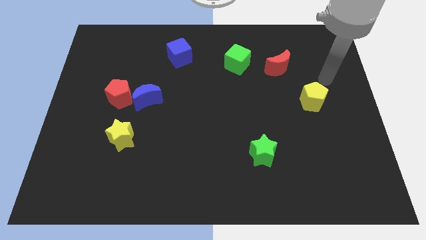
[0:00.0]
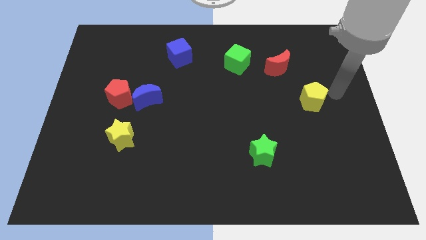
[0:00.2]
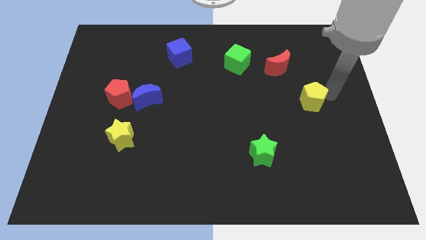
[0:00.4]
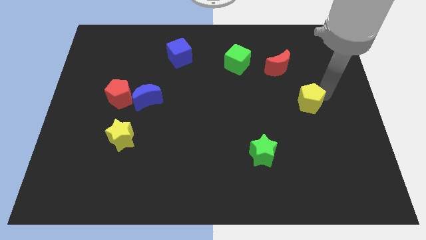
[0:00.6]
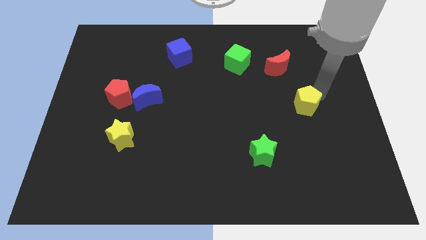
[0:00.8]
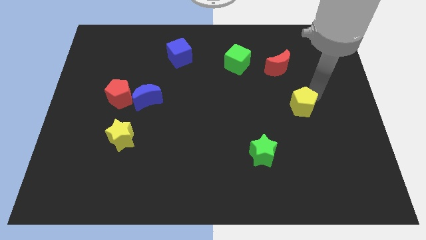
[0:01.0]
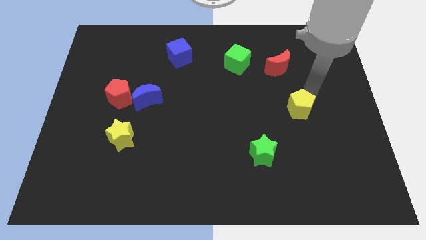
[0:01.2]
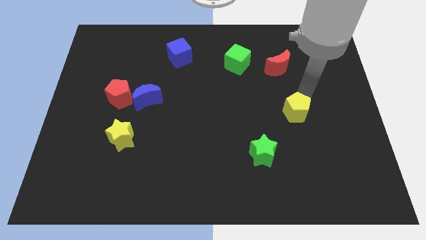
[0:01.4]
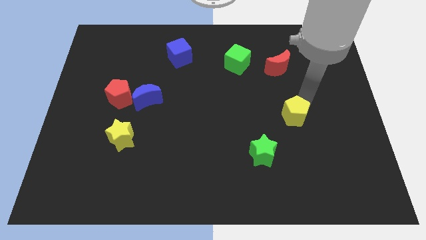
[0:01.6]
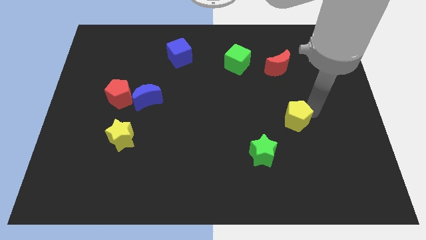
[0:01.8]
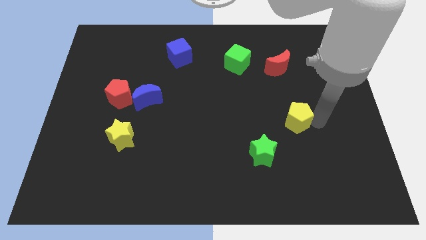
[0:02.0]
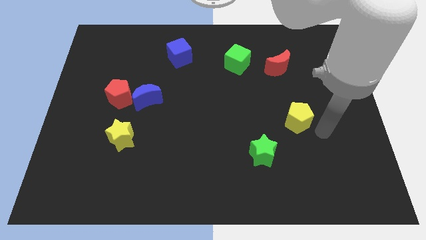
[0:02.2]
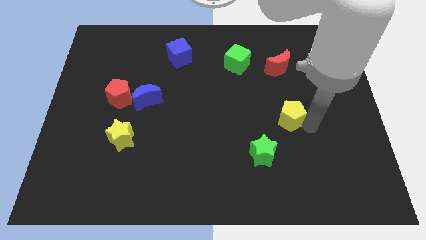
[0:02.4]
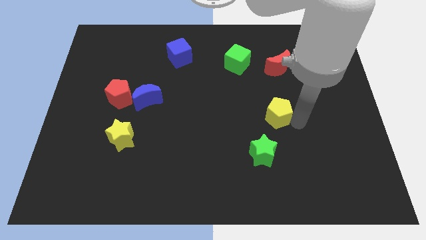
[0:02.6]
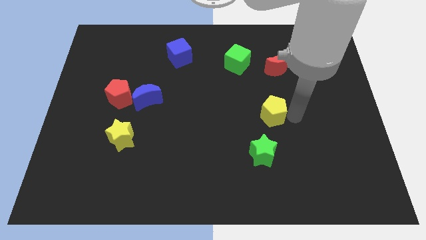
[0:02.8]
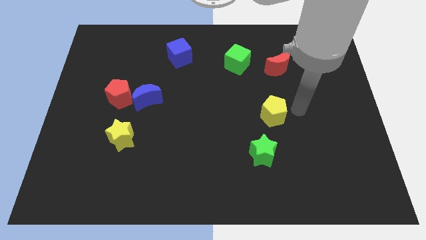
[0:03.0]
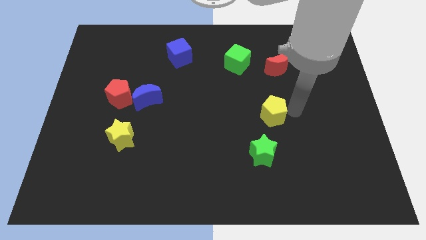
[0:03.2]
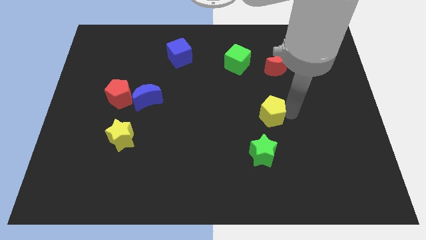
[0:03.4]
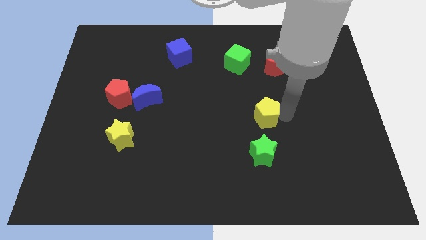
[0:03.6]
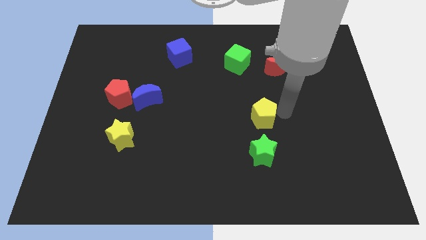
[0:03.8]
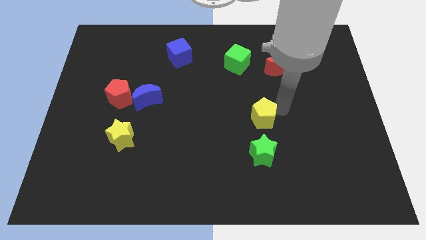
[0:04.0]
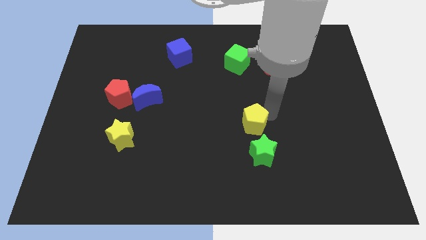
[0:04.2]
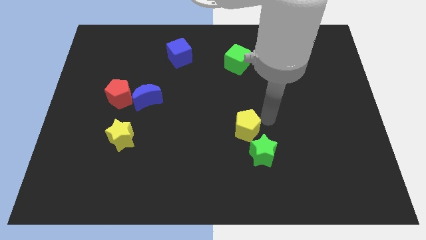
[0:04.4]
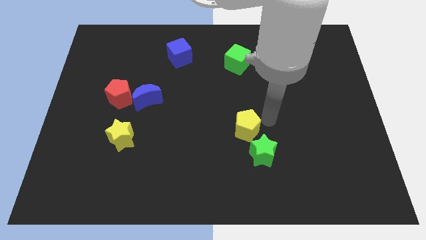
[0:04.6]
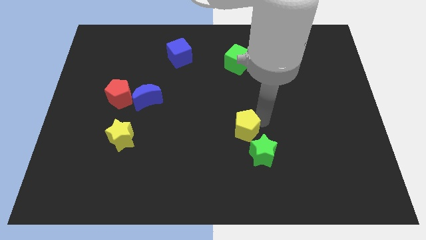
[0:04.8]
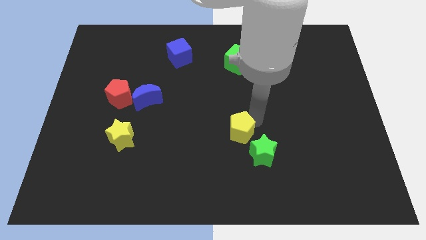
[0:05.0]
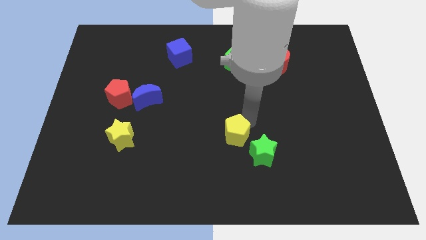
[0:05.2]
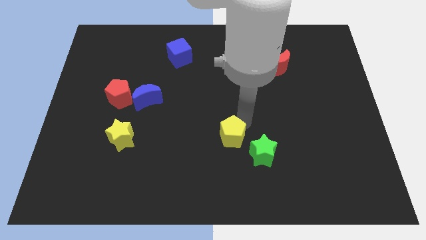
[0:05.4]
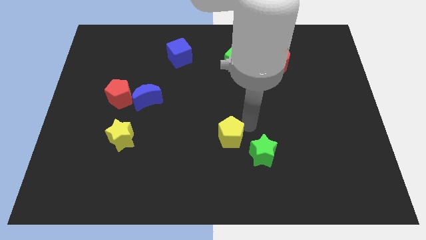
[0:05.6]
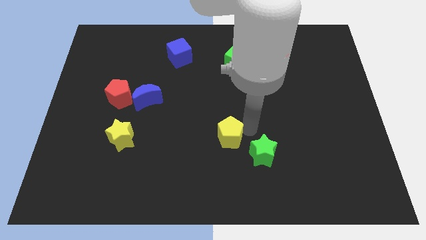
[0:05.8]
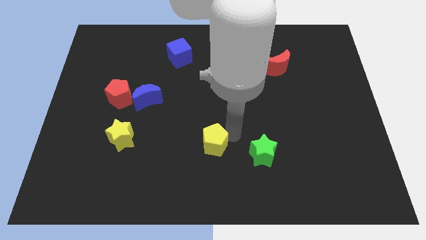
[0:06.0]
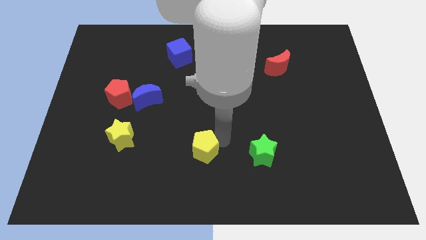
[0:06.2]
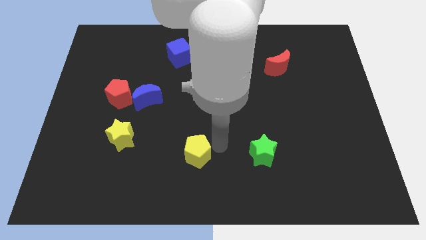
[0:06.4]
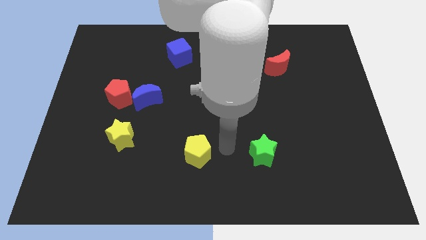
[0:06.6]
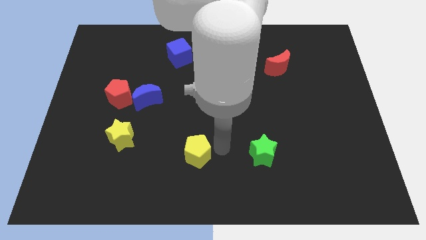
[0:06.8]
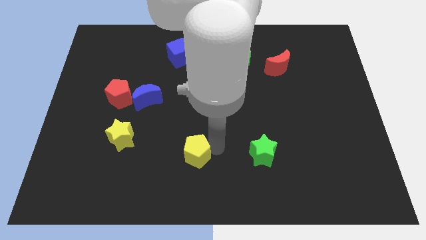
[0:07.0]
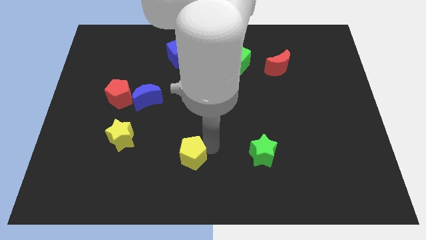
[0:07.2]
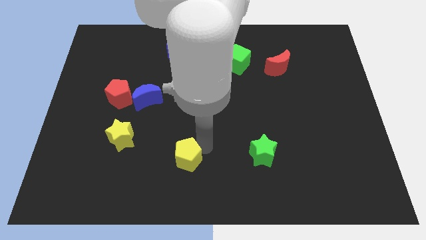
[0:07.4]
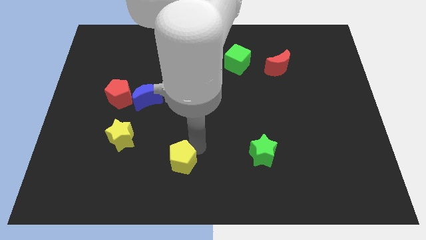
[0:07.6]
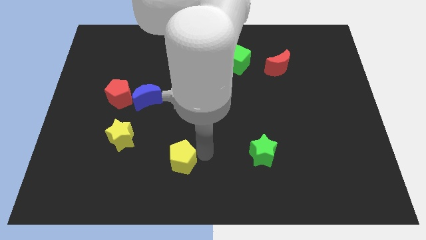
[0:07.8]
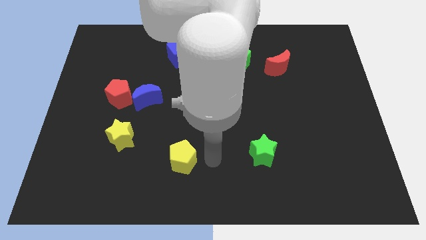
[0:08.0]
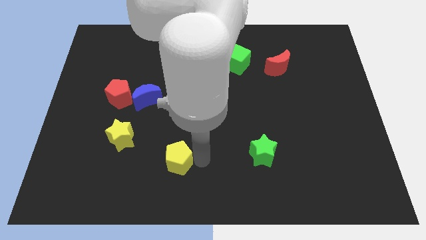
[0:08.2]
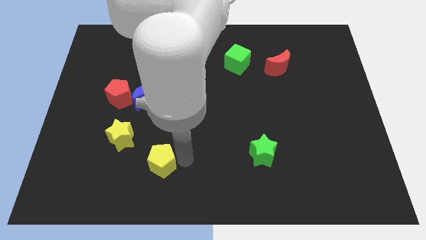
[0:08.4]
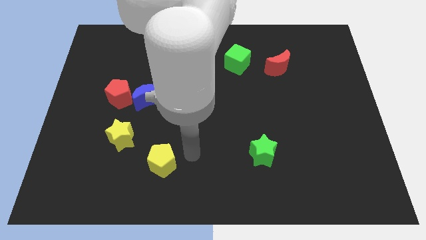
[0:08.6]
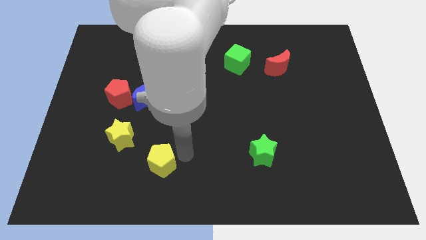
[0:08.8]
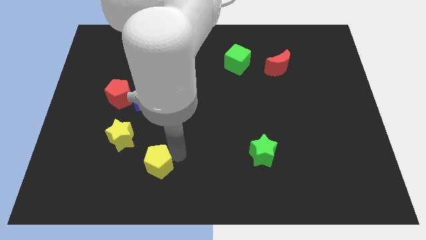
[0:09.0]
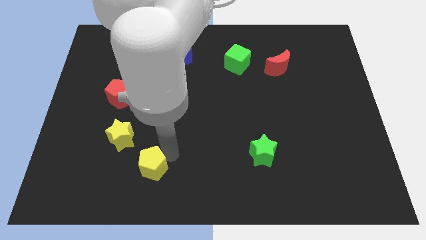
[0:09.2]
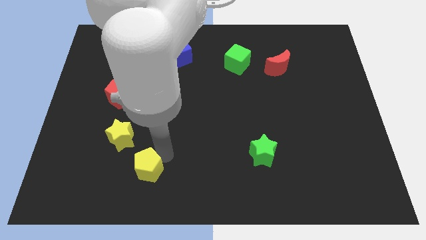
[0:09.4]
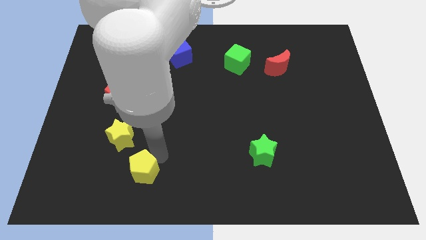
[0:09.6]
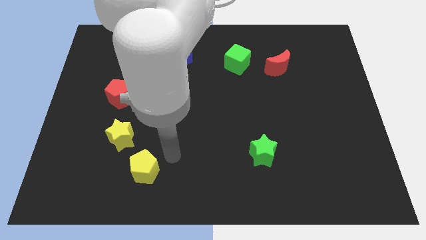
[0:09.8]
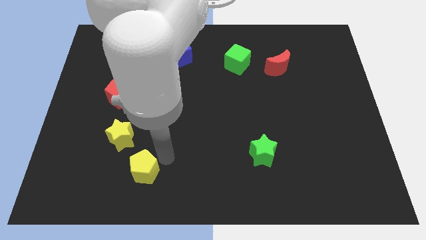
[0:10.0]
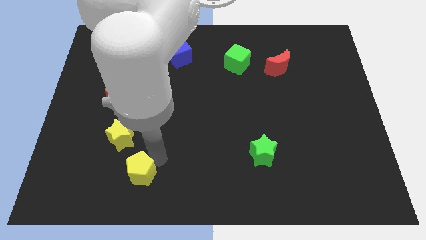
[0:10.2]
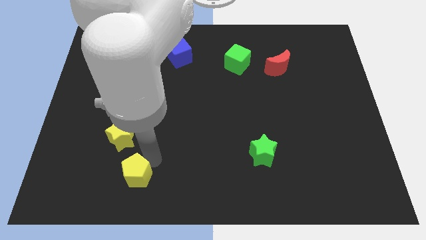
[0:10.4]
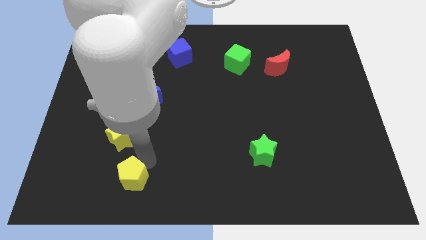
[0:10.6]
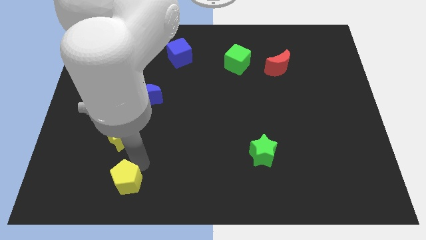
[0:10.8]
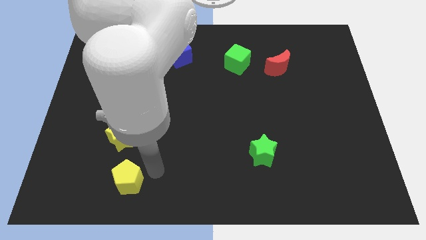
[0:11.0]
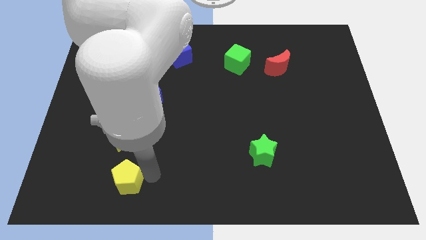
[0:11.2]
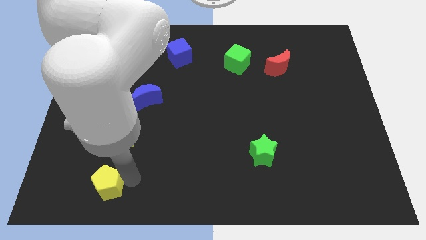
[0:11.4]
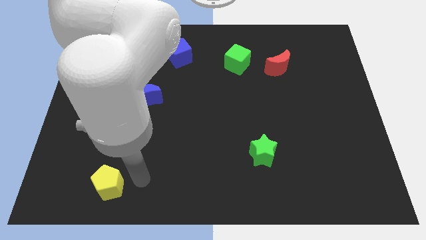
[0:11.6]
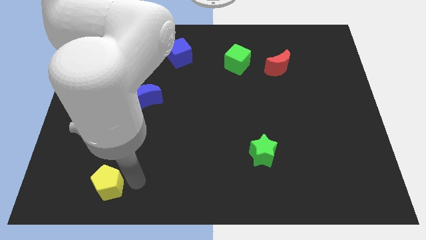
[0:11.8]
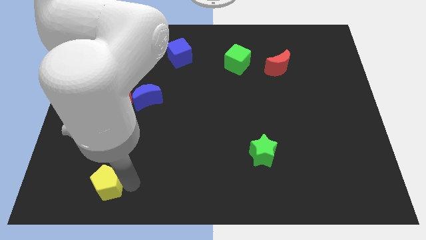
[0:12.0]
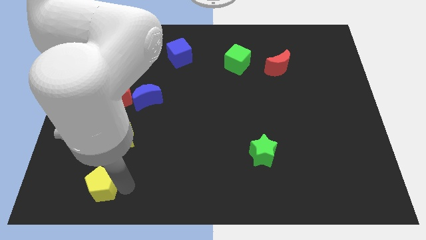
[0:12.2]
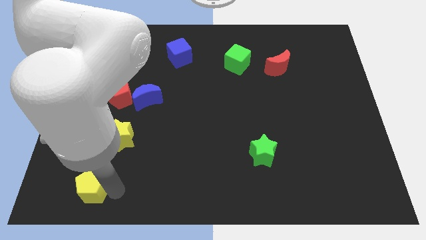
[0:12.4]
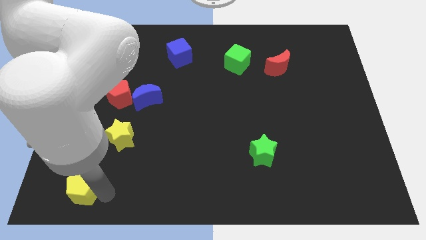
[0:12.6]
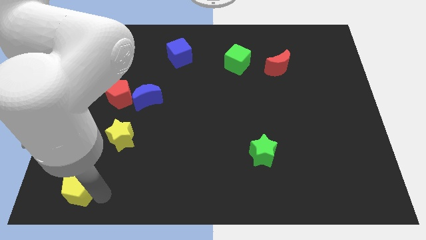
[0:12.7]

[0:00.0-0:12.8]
push the yellow pentagon to the bottom left of the board
